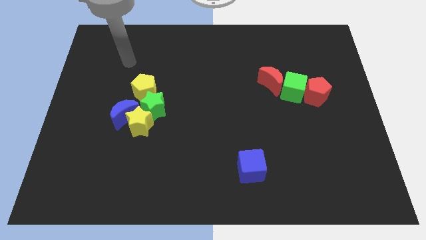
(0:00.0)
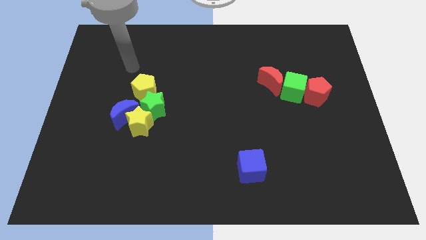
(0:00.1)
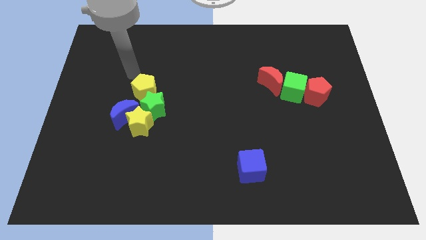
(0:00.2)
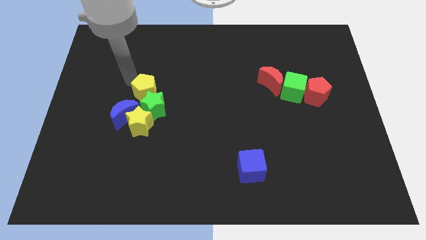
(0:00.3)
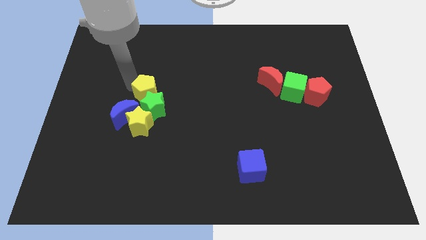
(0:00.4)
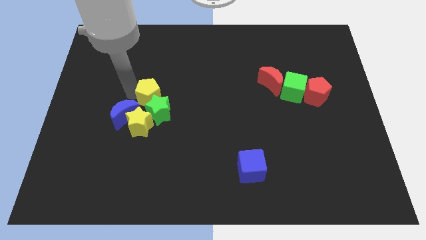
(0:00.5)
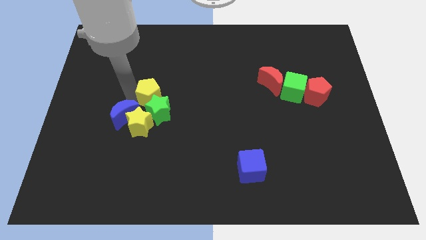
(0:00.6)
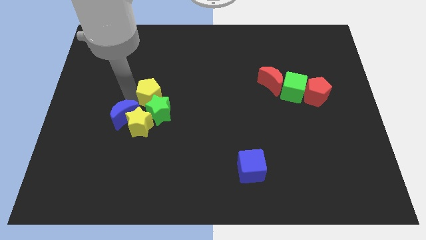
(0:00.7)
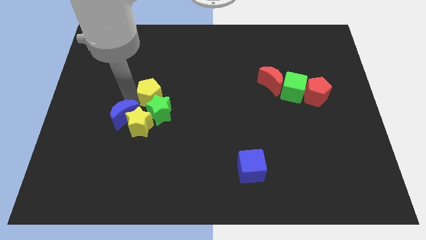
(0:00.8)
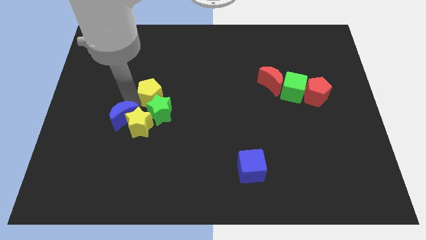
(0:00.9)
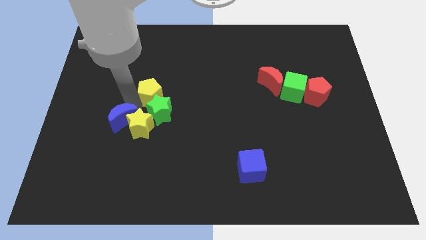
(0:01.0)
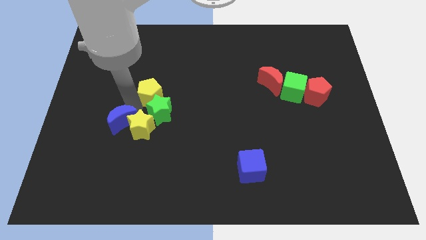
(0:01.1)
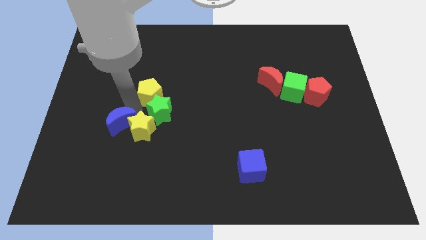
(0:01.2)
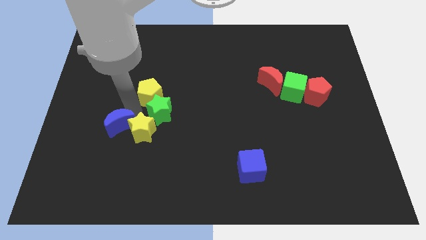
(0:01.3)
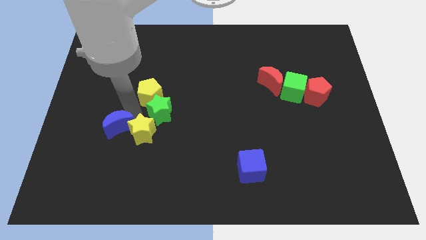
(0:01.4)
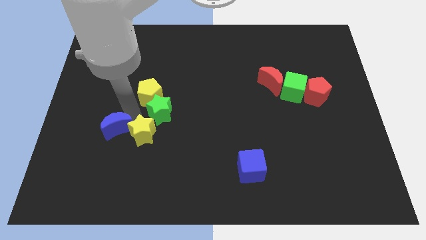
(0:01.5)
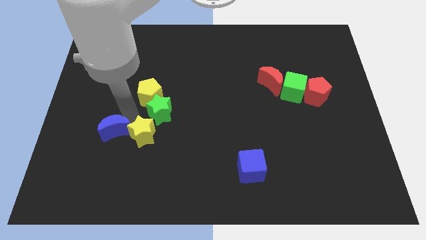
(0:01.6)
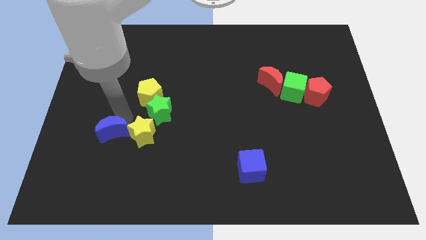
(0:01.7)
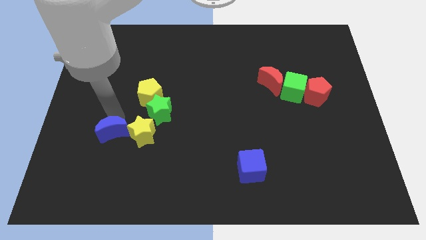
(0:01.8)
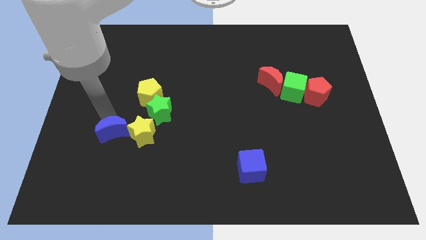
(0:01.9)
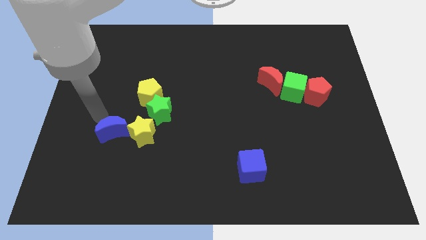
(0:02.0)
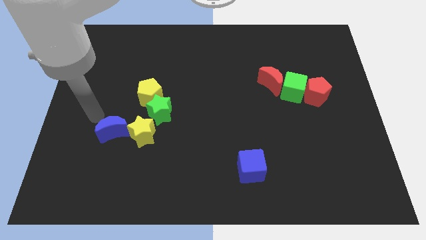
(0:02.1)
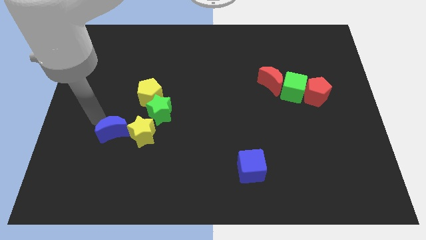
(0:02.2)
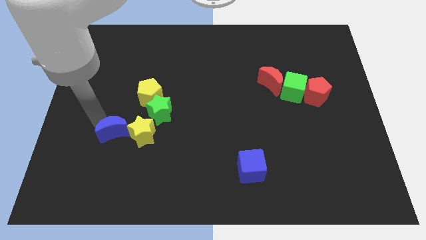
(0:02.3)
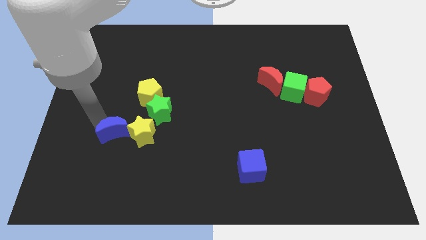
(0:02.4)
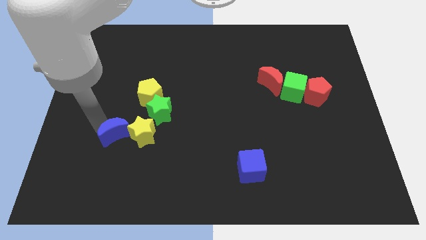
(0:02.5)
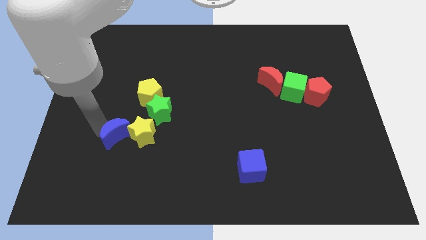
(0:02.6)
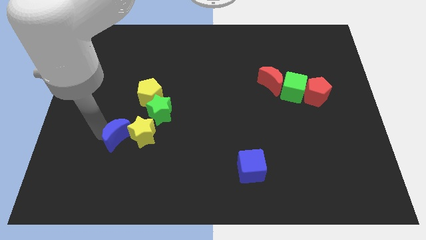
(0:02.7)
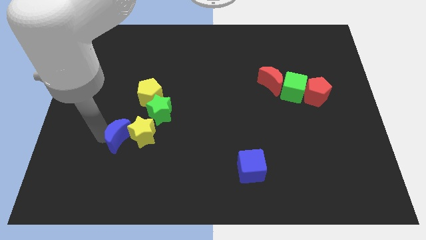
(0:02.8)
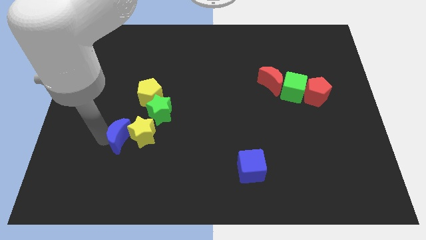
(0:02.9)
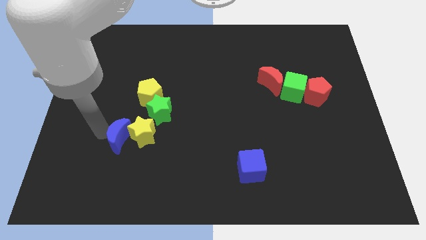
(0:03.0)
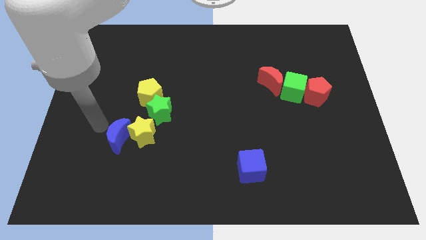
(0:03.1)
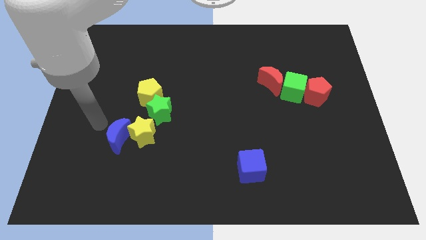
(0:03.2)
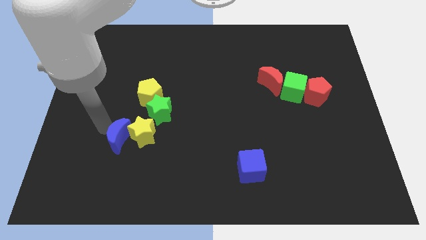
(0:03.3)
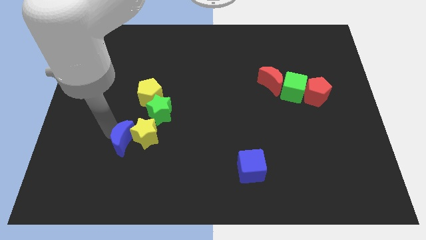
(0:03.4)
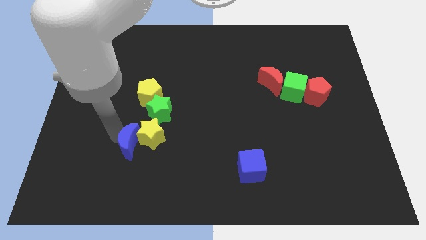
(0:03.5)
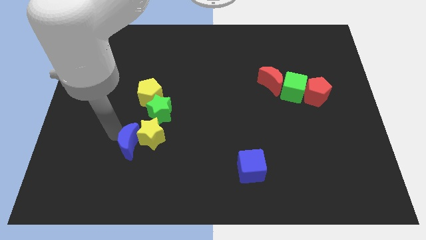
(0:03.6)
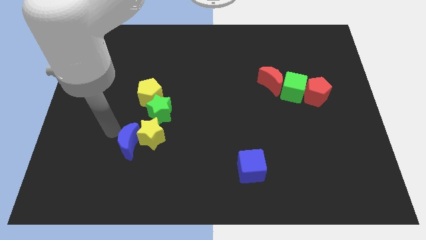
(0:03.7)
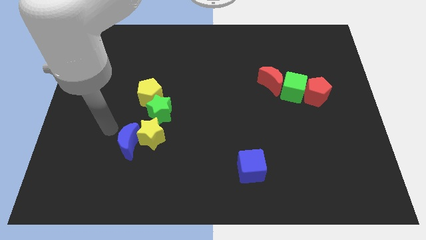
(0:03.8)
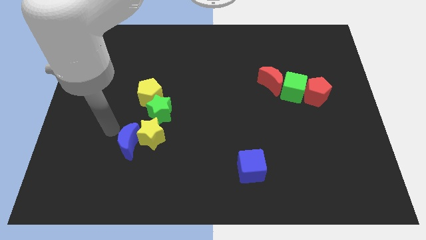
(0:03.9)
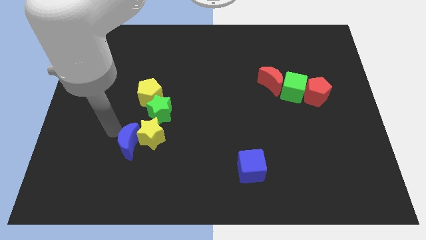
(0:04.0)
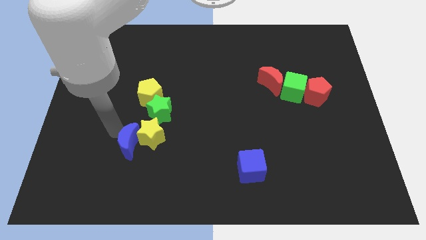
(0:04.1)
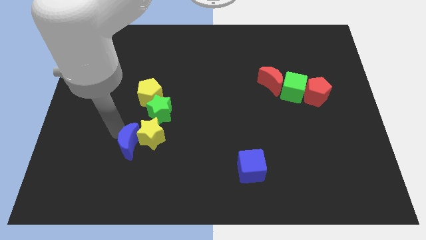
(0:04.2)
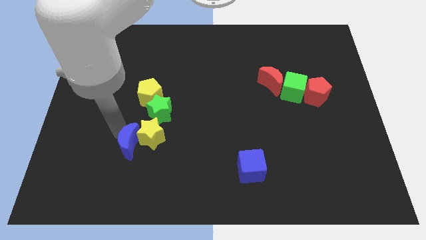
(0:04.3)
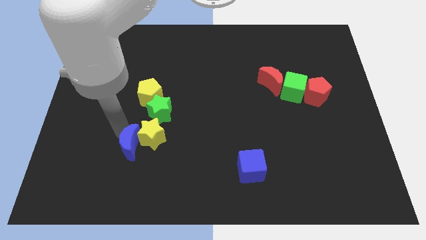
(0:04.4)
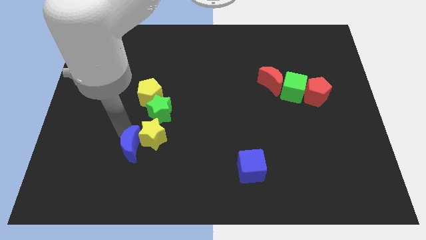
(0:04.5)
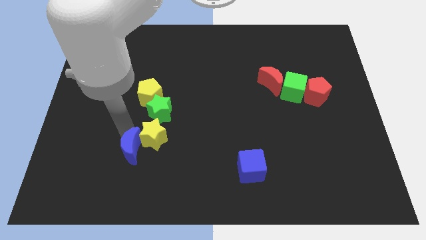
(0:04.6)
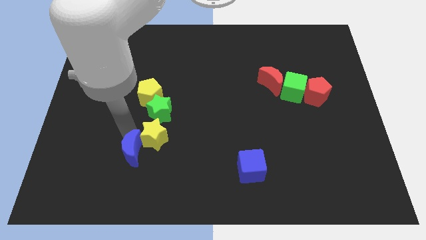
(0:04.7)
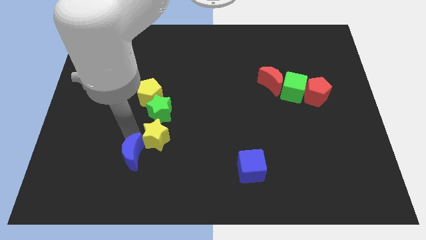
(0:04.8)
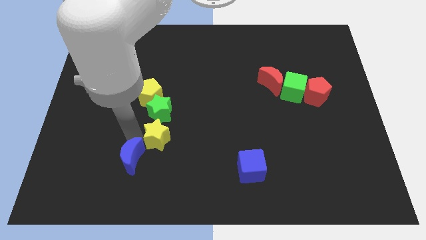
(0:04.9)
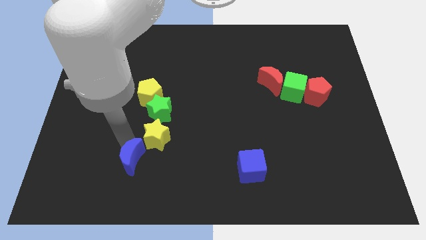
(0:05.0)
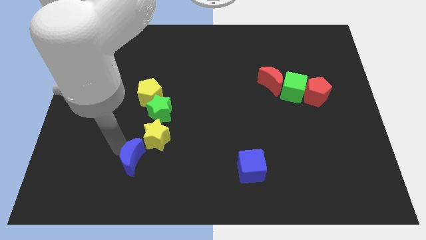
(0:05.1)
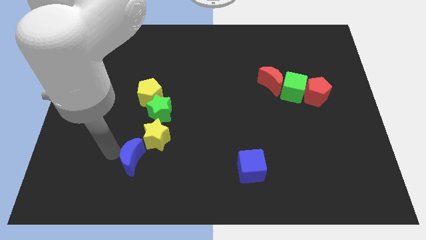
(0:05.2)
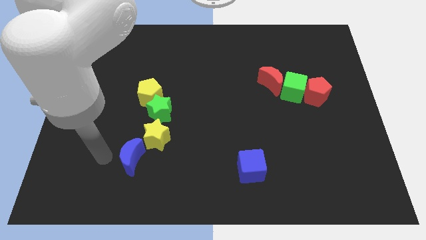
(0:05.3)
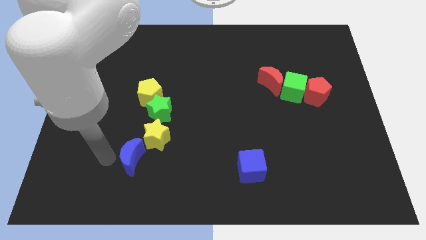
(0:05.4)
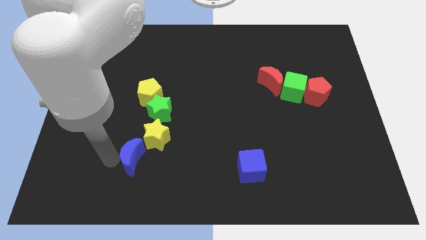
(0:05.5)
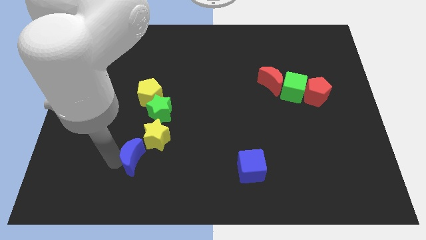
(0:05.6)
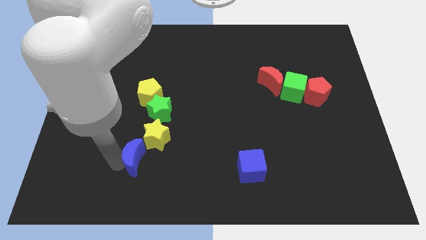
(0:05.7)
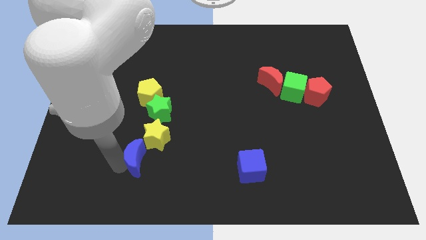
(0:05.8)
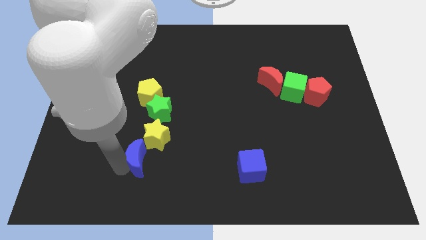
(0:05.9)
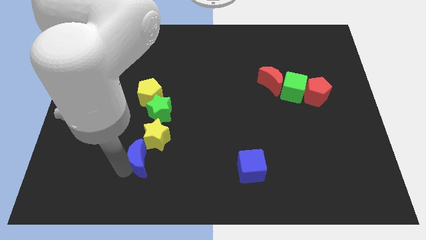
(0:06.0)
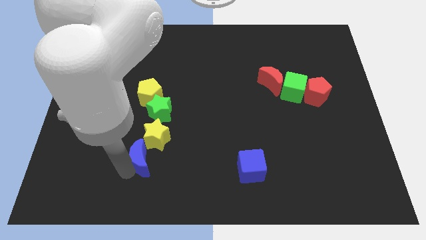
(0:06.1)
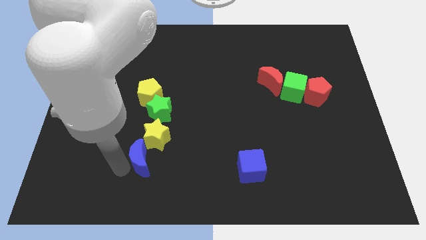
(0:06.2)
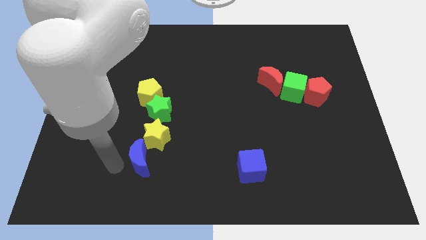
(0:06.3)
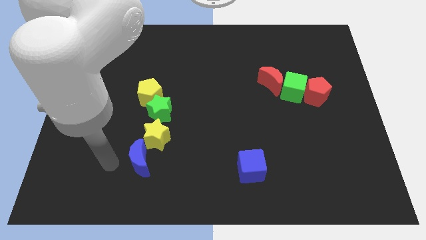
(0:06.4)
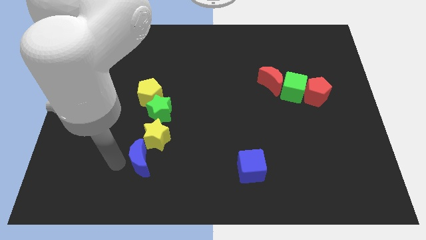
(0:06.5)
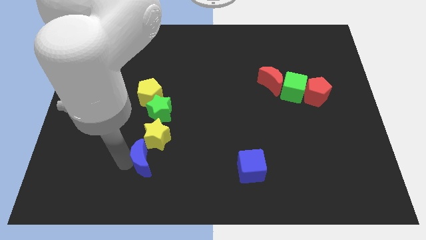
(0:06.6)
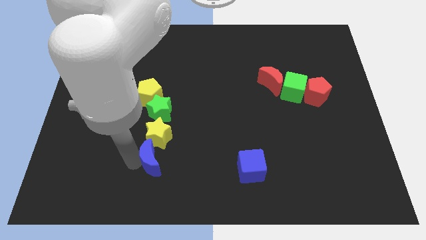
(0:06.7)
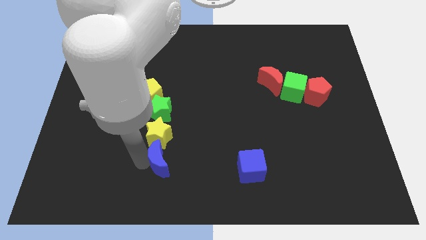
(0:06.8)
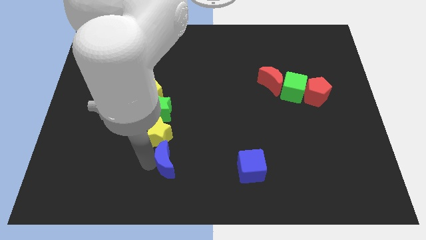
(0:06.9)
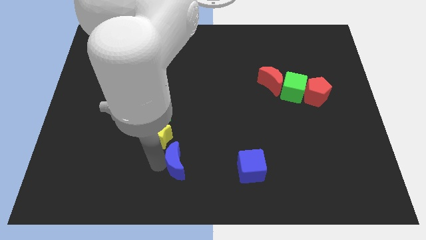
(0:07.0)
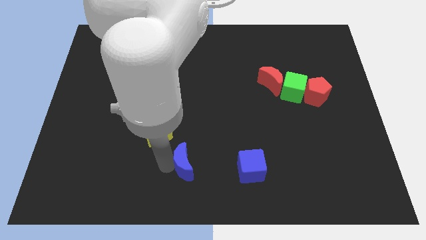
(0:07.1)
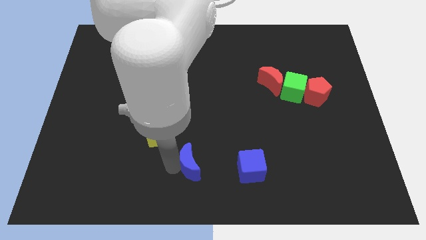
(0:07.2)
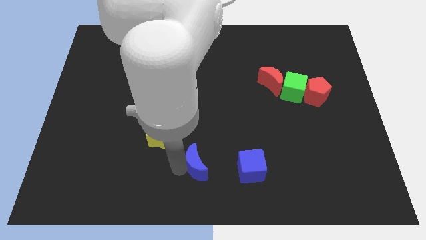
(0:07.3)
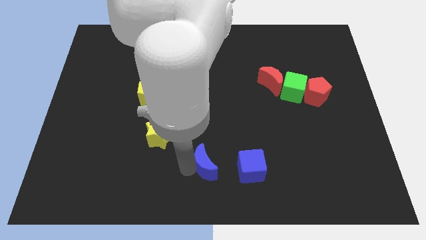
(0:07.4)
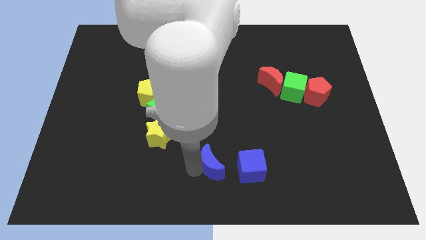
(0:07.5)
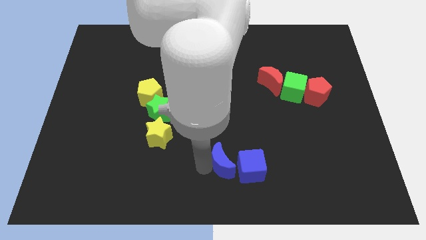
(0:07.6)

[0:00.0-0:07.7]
move the blue moon towards the blue cube
